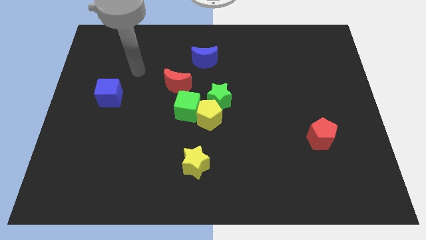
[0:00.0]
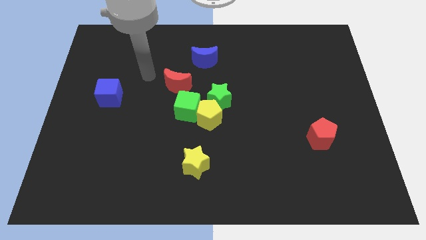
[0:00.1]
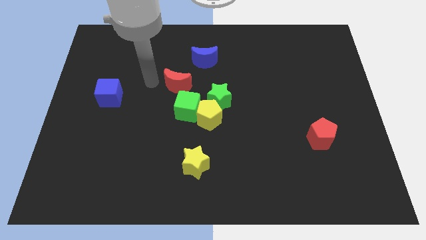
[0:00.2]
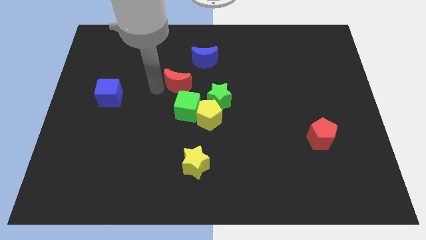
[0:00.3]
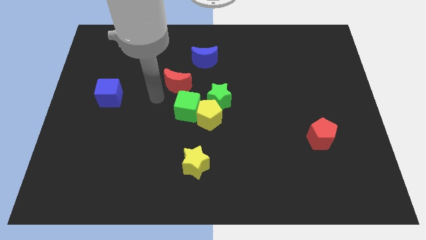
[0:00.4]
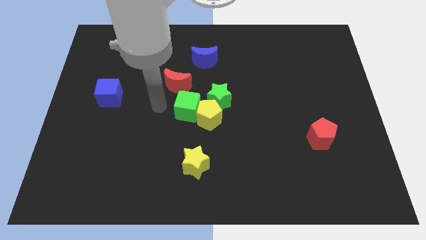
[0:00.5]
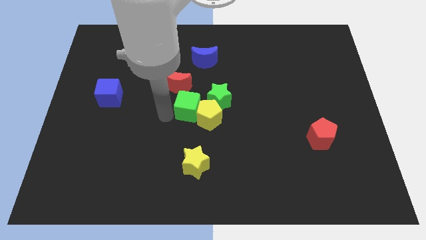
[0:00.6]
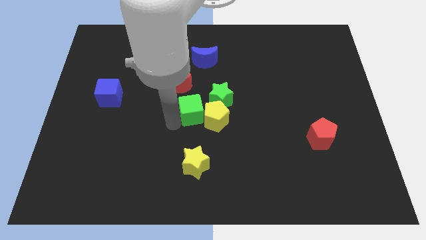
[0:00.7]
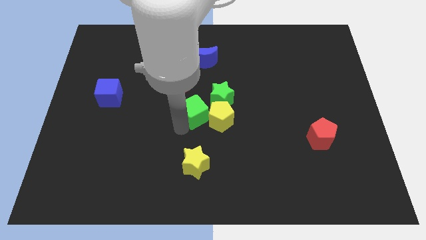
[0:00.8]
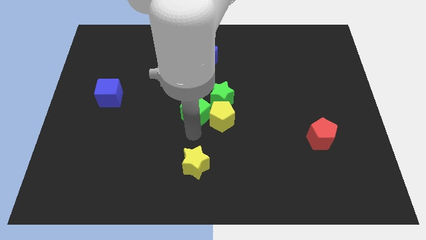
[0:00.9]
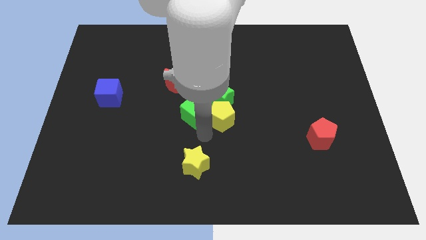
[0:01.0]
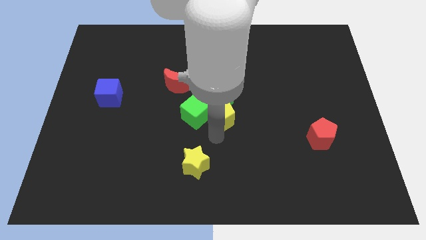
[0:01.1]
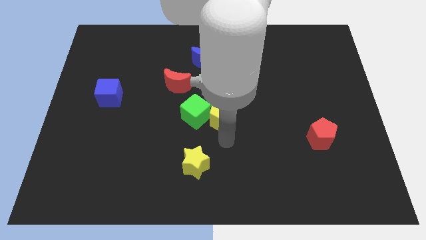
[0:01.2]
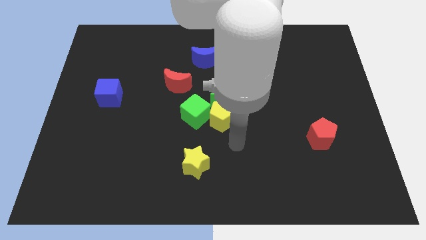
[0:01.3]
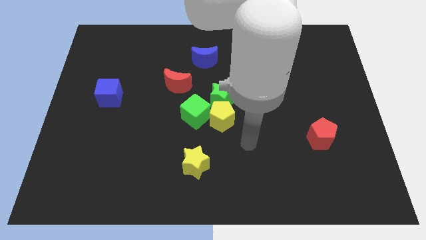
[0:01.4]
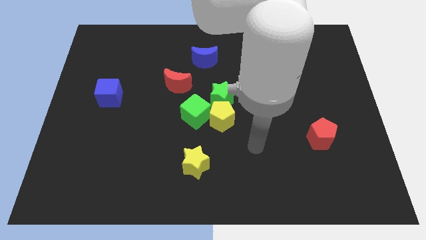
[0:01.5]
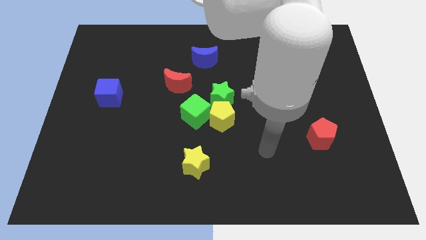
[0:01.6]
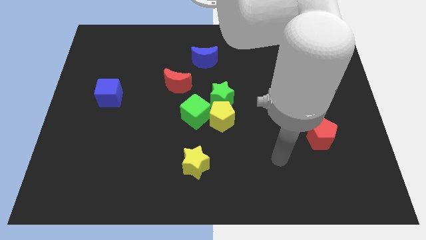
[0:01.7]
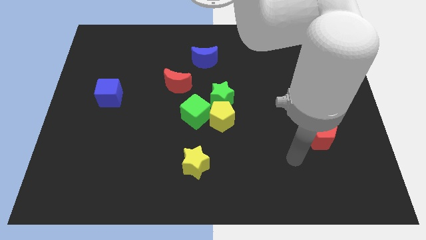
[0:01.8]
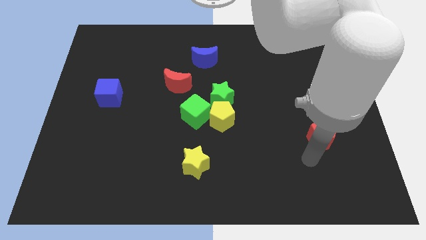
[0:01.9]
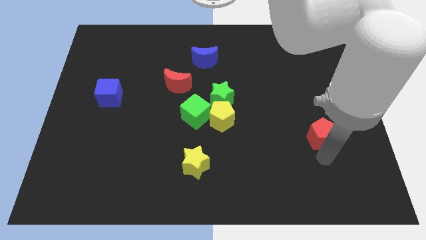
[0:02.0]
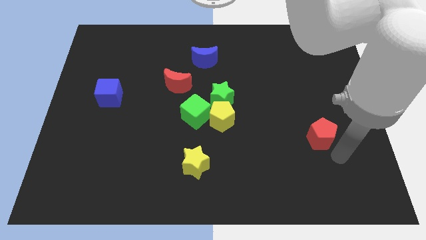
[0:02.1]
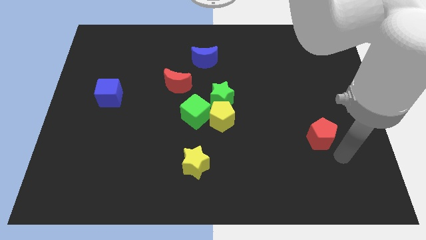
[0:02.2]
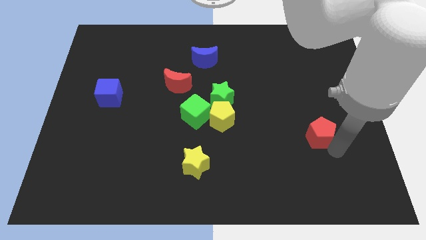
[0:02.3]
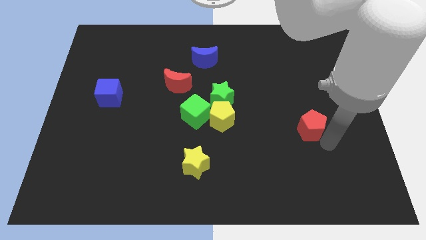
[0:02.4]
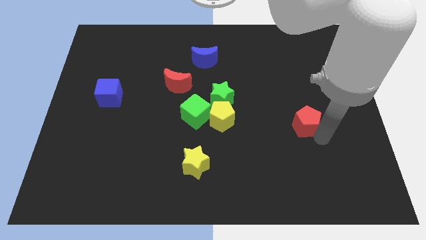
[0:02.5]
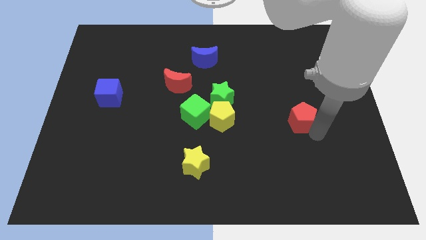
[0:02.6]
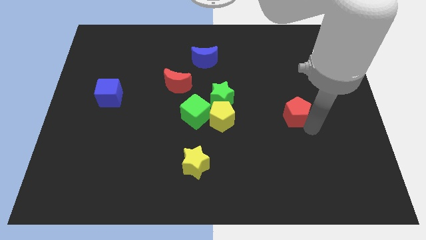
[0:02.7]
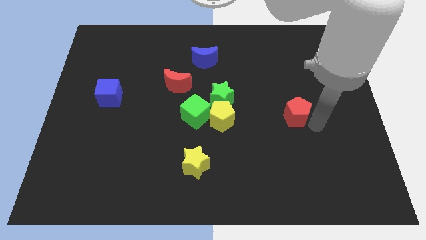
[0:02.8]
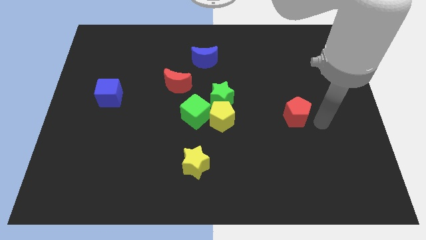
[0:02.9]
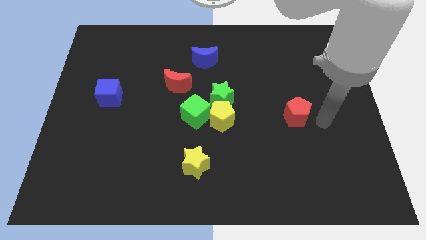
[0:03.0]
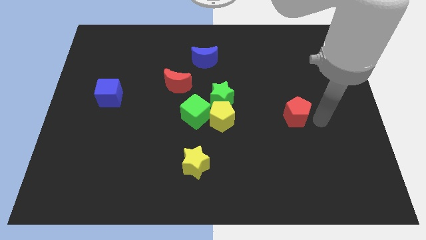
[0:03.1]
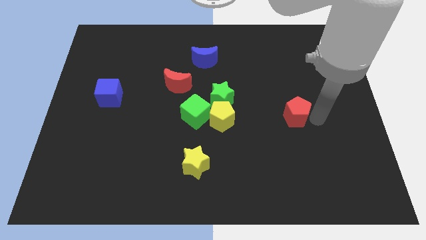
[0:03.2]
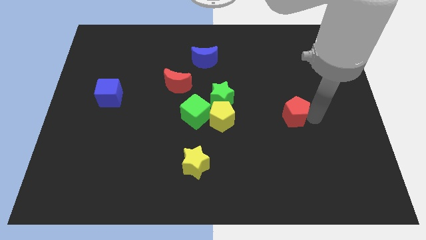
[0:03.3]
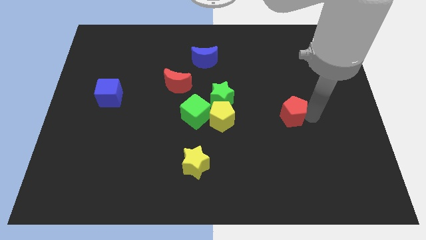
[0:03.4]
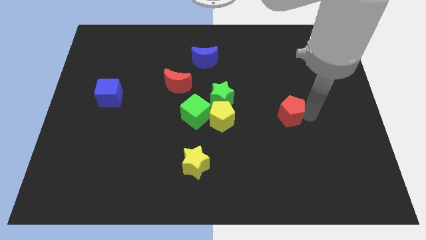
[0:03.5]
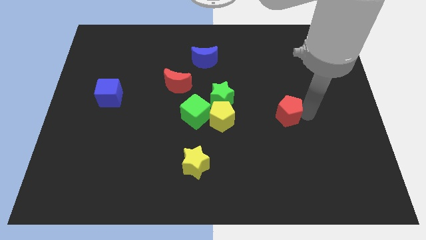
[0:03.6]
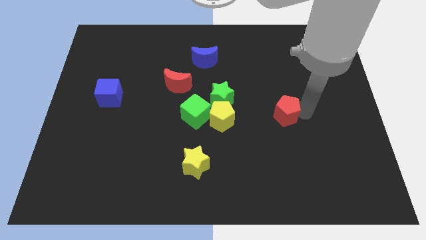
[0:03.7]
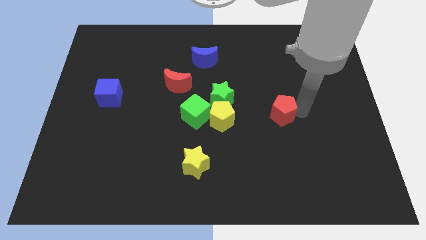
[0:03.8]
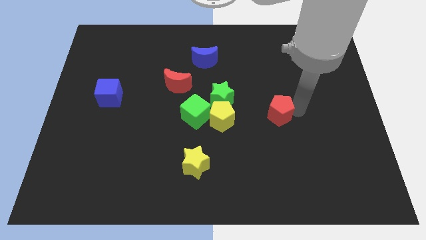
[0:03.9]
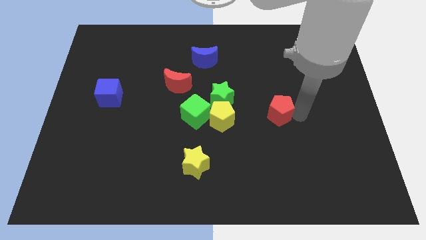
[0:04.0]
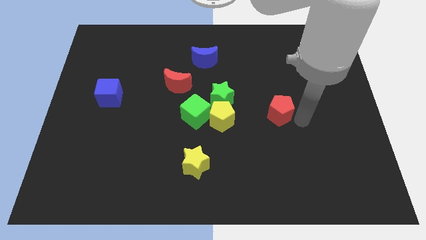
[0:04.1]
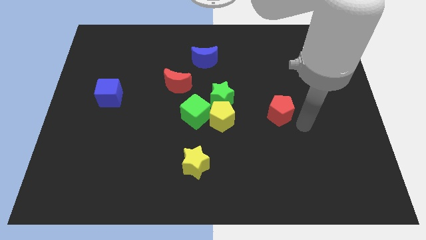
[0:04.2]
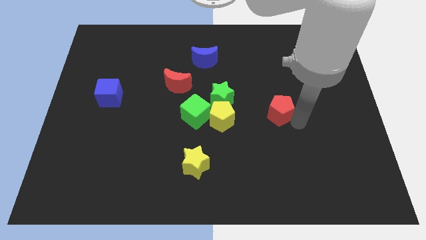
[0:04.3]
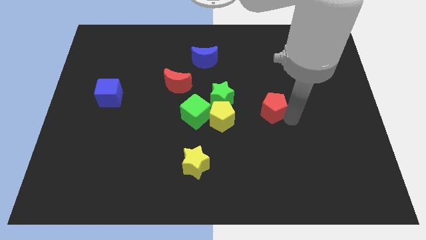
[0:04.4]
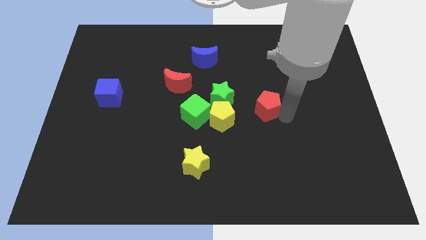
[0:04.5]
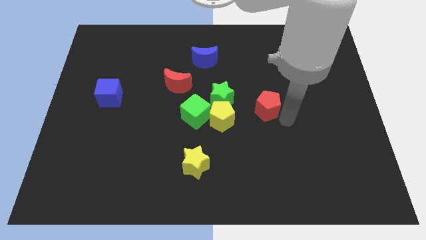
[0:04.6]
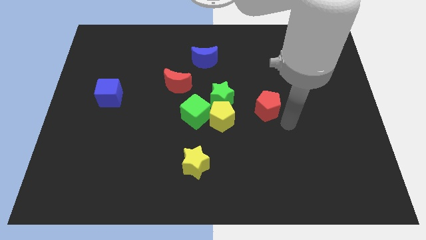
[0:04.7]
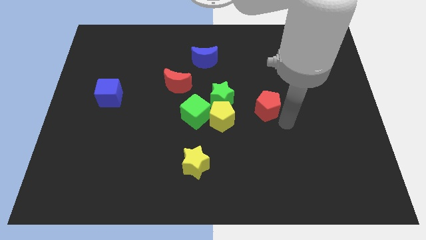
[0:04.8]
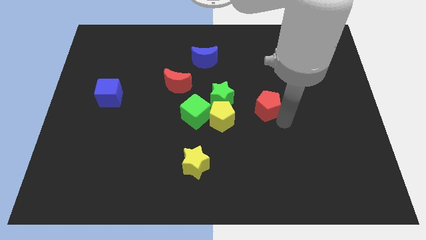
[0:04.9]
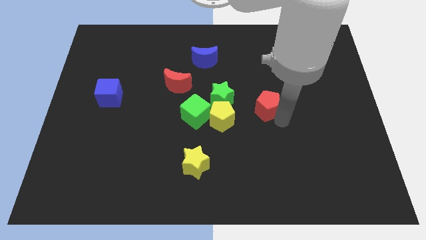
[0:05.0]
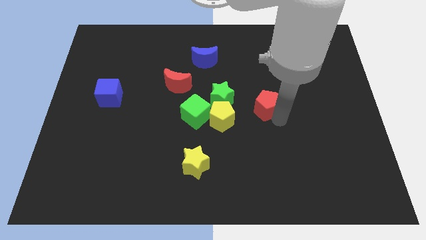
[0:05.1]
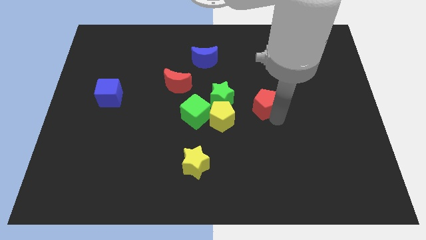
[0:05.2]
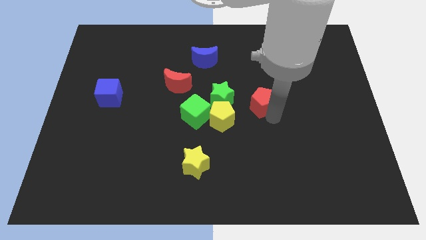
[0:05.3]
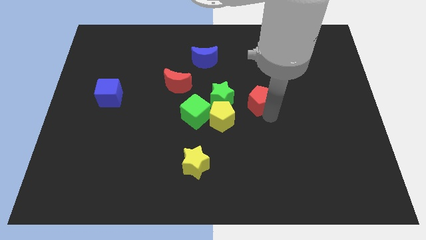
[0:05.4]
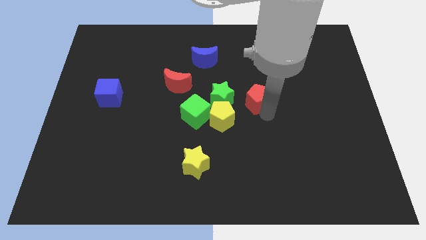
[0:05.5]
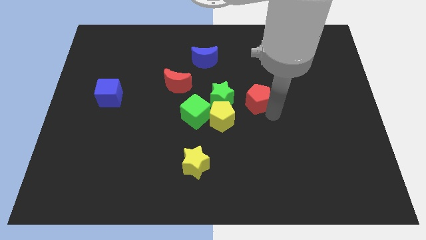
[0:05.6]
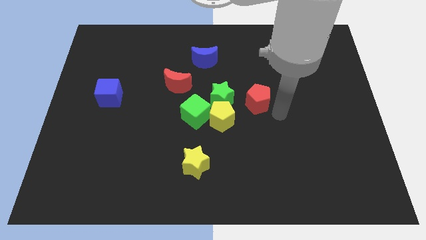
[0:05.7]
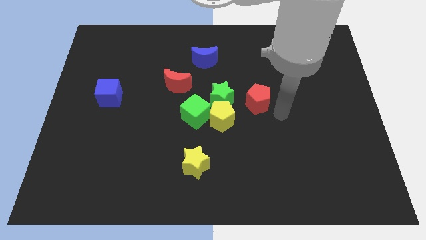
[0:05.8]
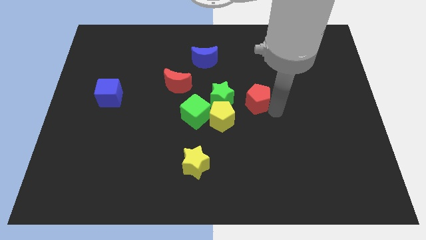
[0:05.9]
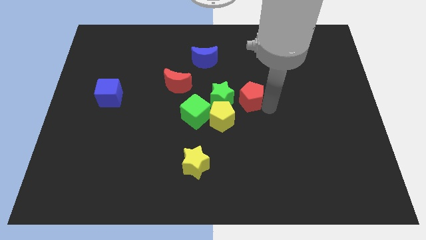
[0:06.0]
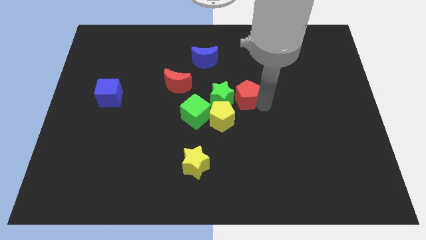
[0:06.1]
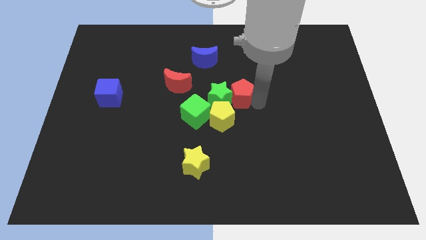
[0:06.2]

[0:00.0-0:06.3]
move the red pentagon diagonally up and to the right of the green cube

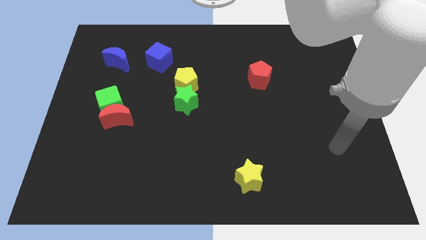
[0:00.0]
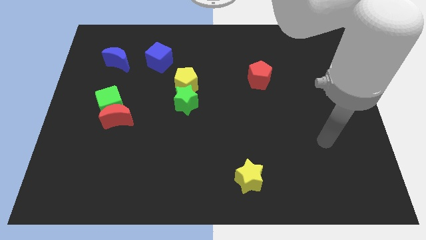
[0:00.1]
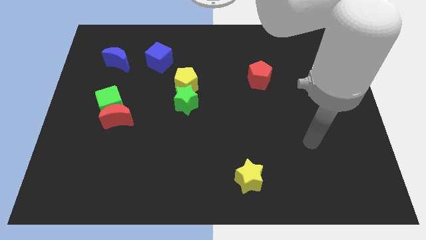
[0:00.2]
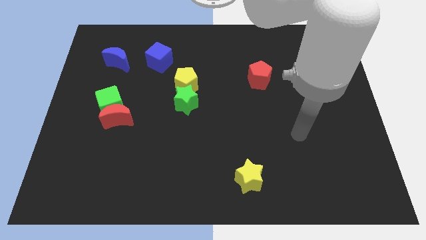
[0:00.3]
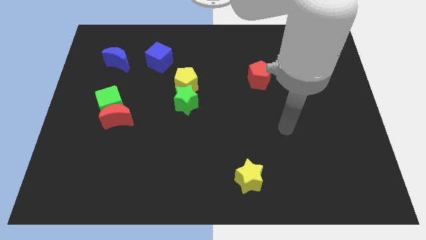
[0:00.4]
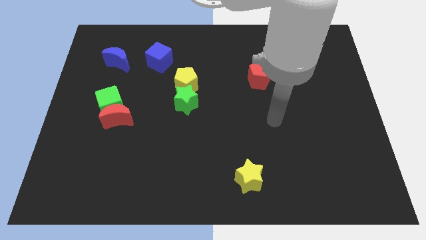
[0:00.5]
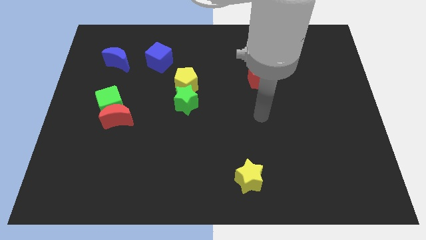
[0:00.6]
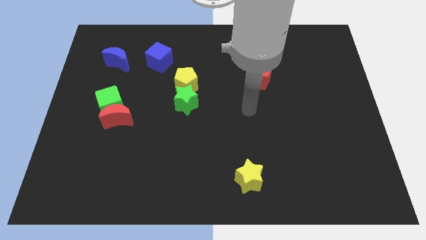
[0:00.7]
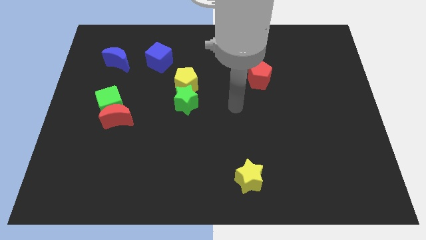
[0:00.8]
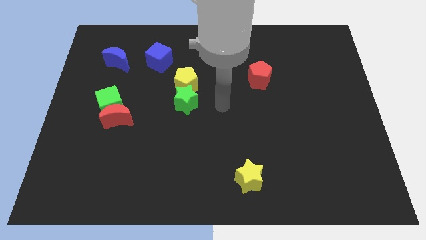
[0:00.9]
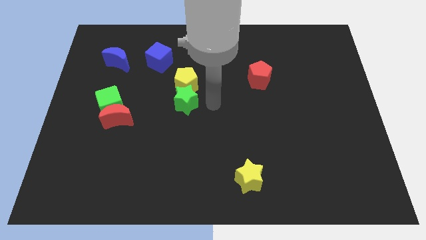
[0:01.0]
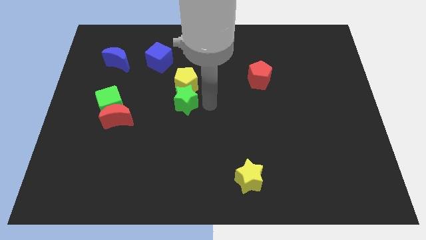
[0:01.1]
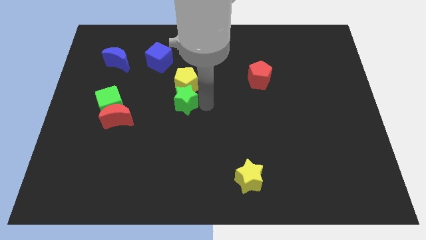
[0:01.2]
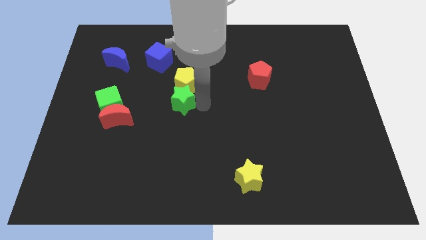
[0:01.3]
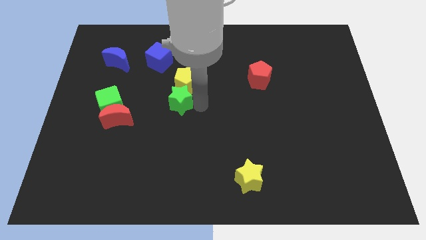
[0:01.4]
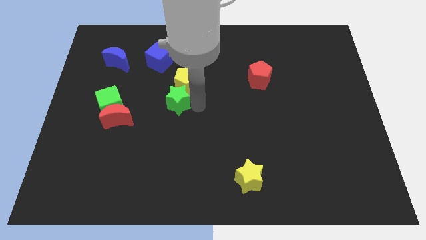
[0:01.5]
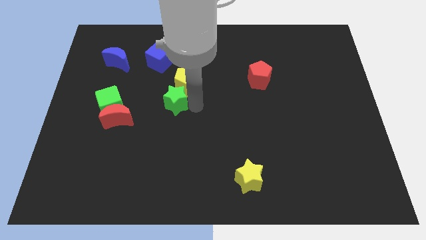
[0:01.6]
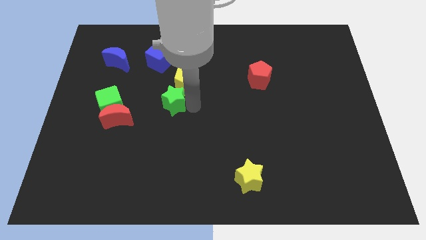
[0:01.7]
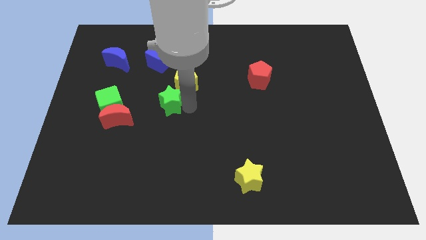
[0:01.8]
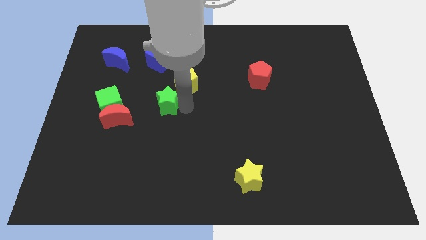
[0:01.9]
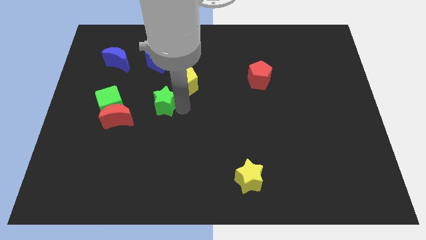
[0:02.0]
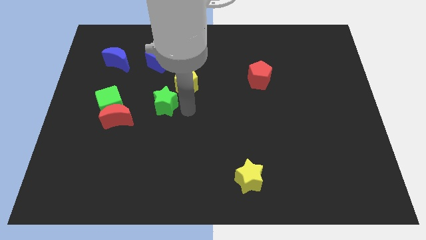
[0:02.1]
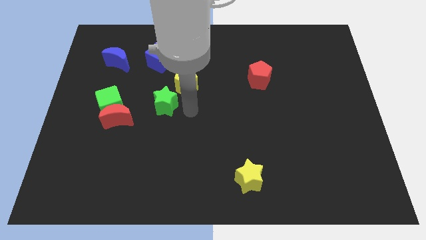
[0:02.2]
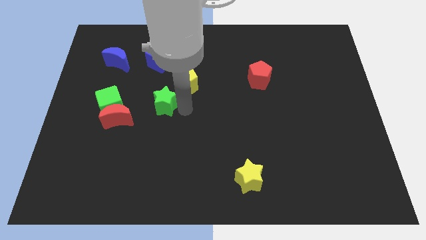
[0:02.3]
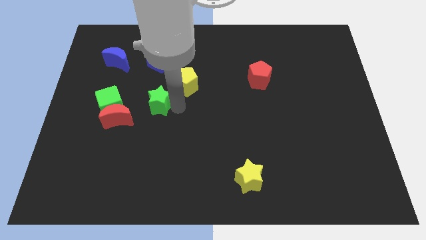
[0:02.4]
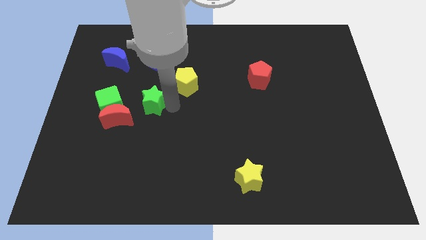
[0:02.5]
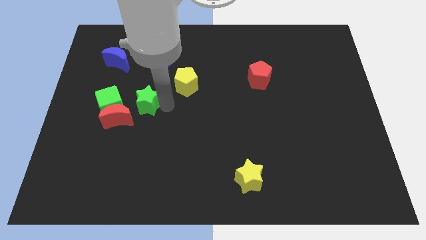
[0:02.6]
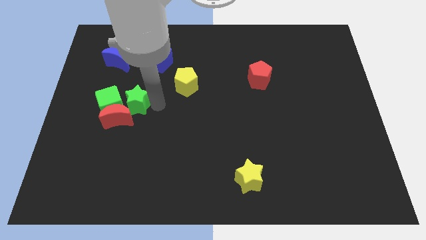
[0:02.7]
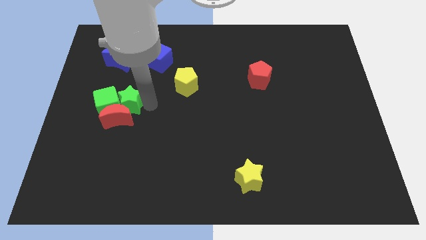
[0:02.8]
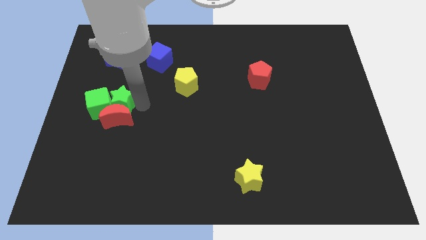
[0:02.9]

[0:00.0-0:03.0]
move the green star to the bottom side of the blue moon
